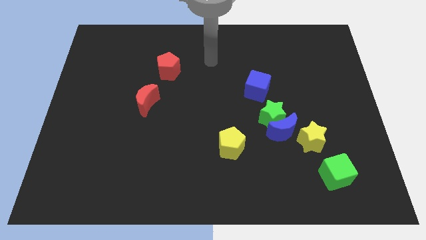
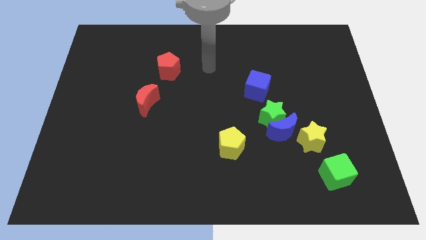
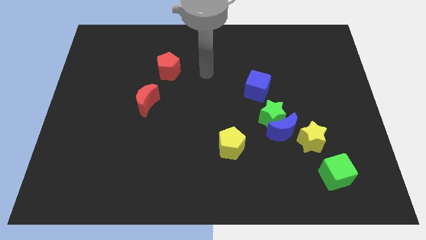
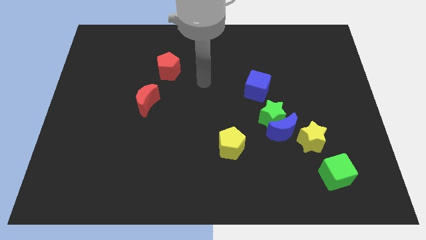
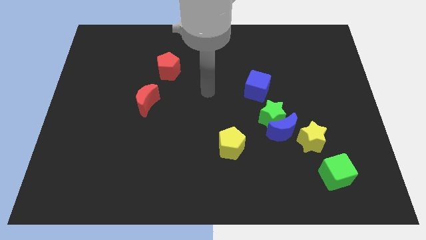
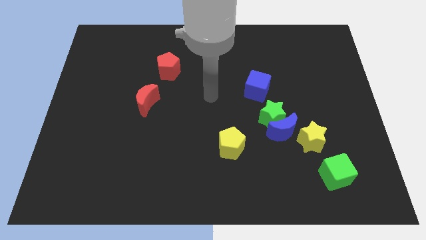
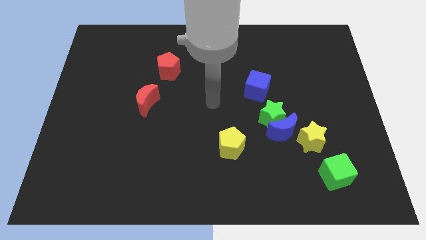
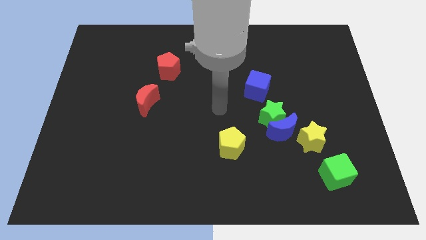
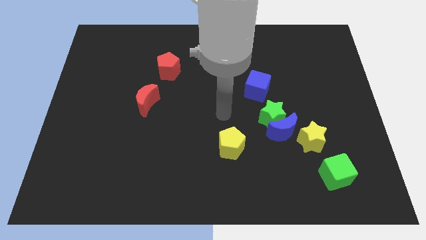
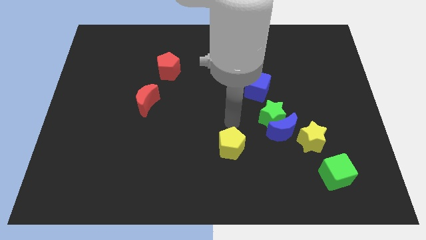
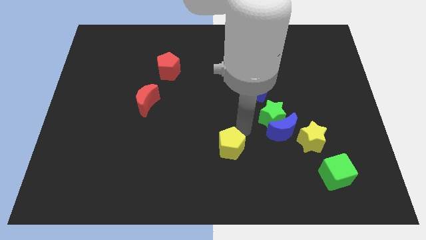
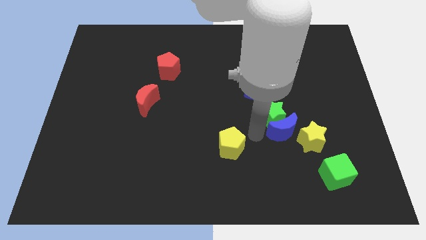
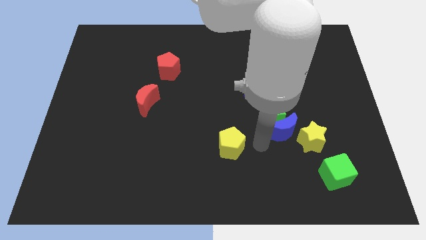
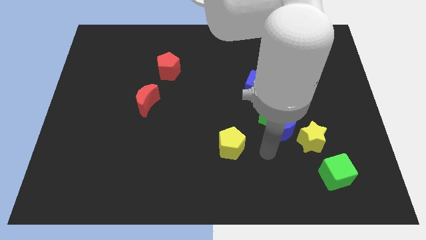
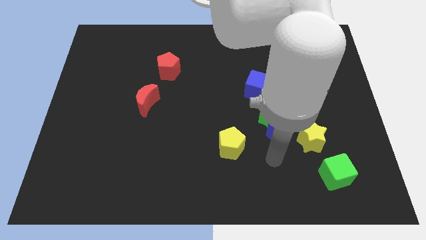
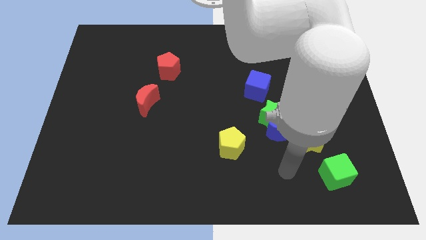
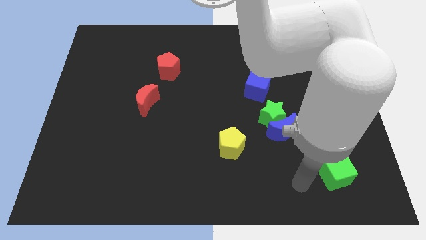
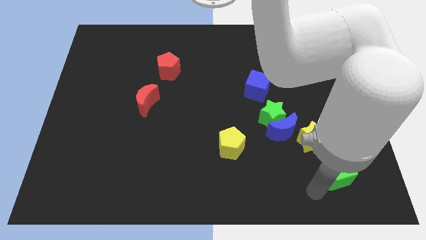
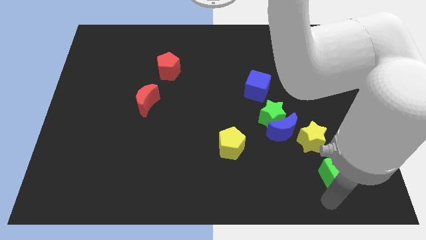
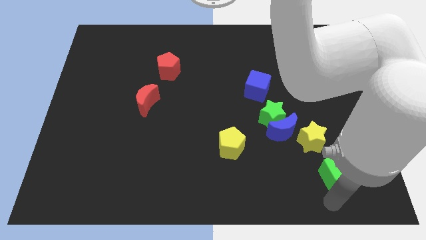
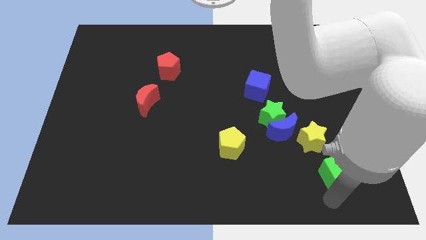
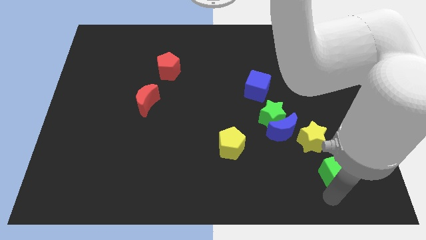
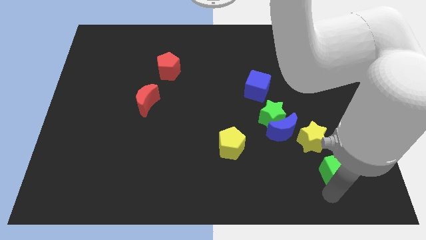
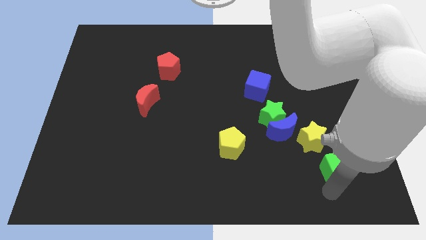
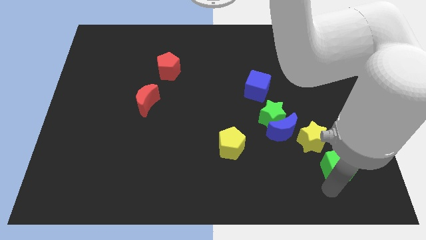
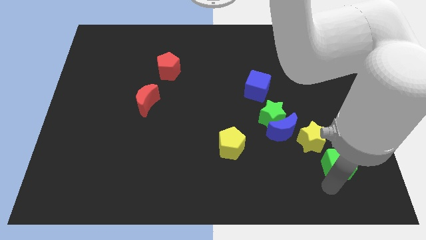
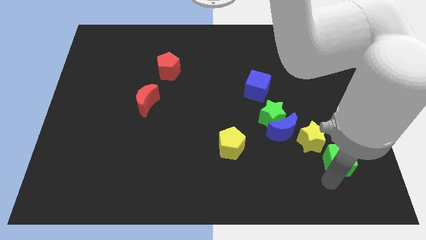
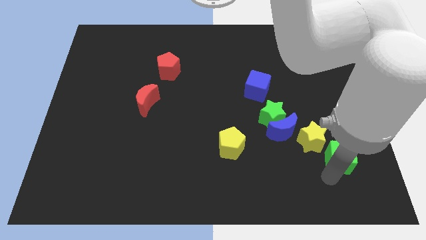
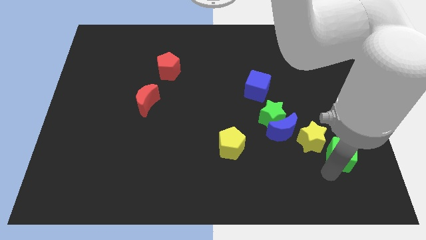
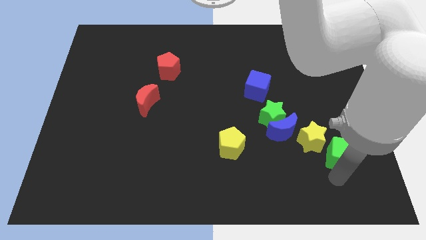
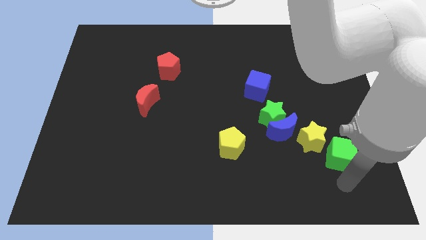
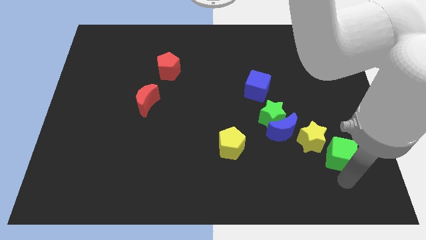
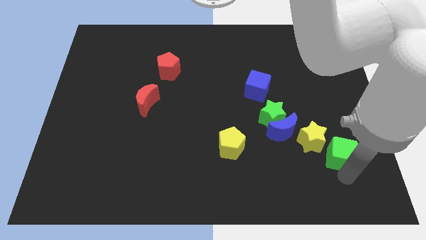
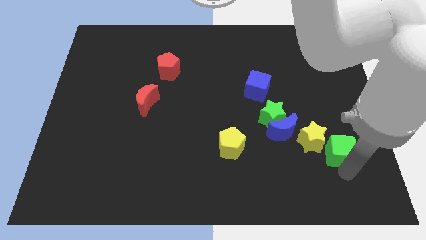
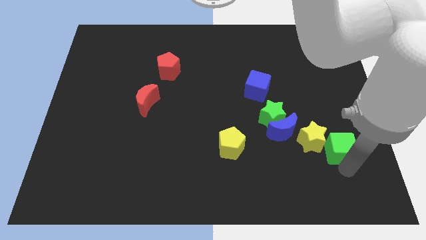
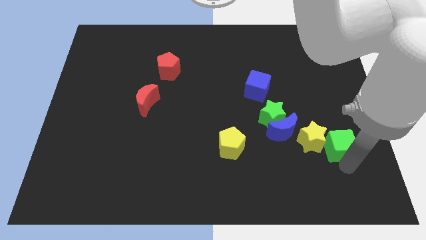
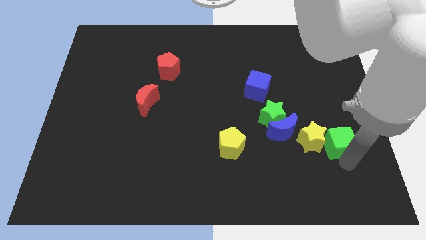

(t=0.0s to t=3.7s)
slide the green cube up a little bit

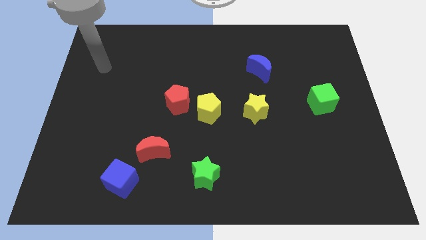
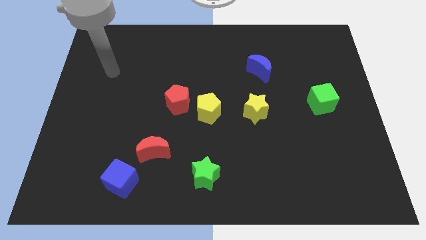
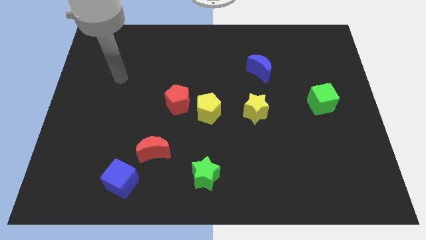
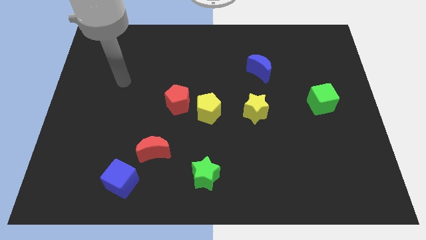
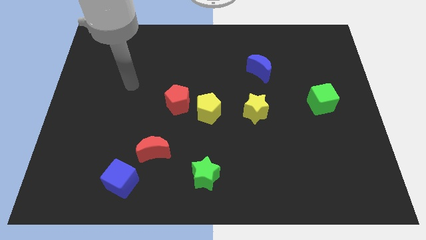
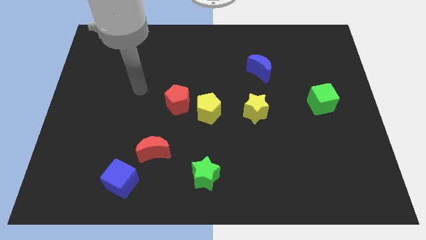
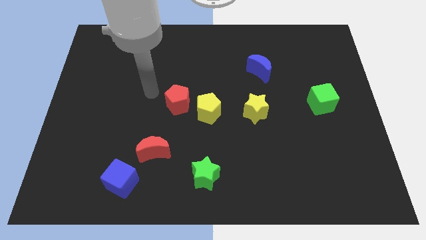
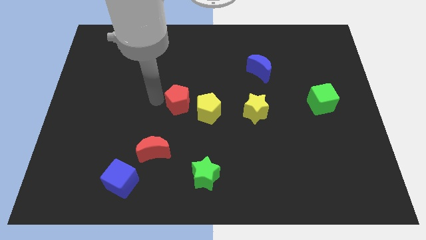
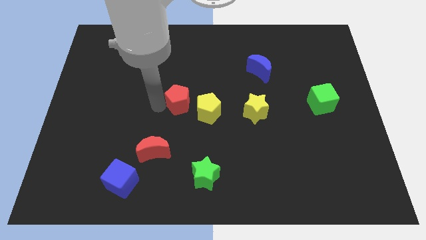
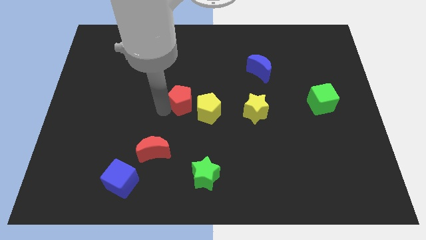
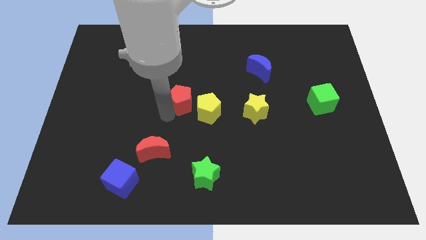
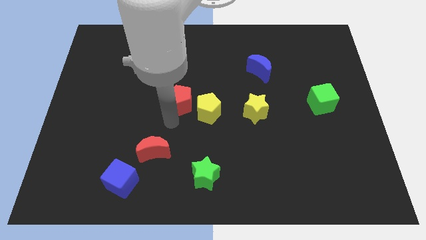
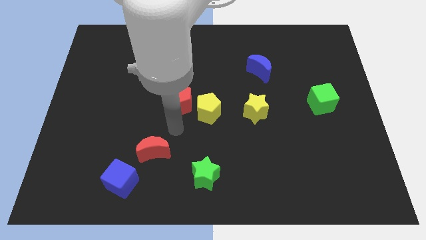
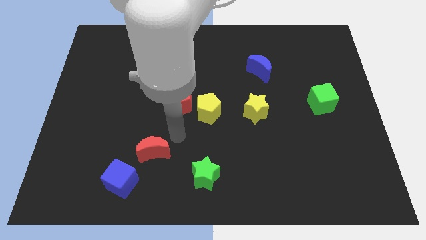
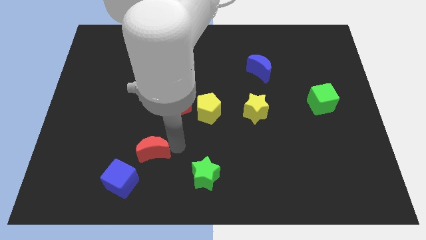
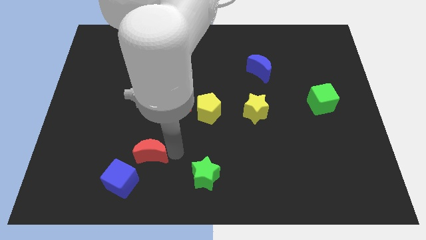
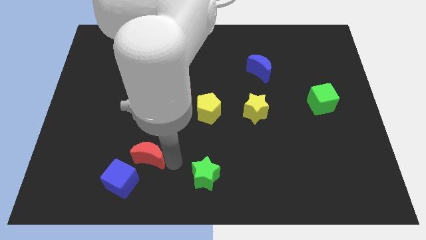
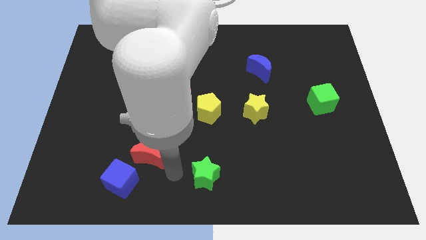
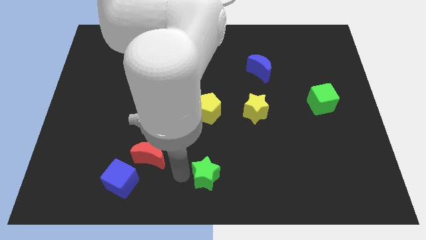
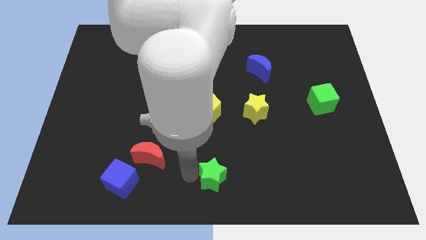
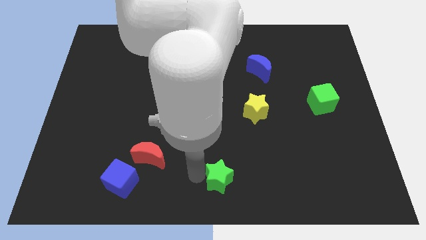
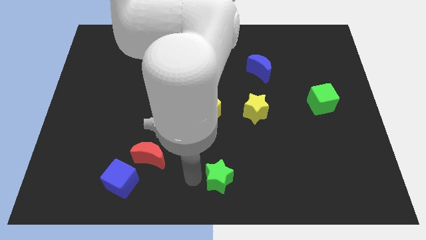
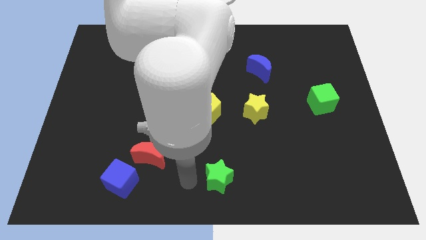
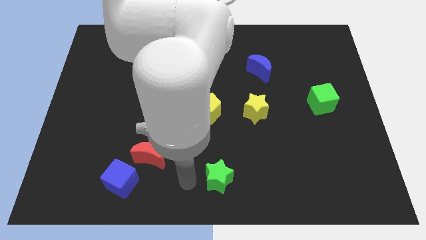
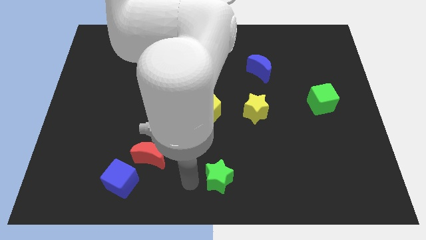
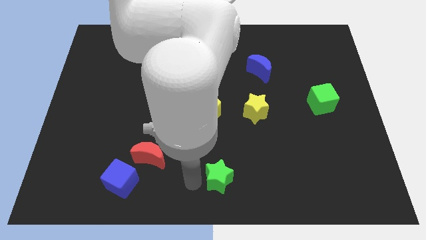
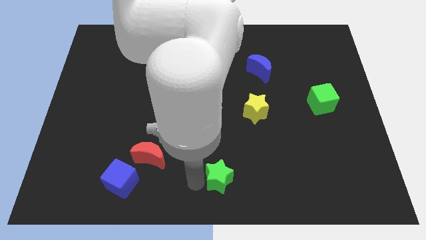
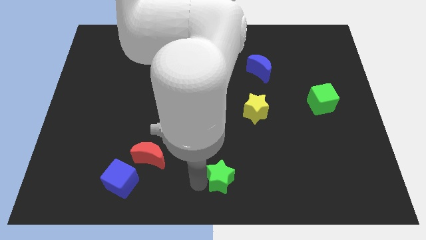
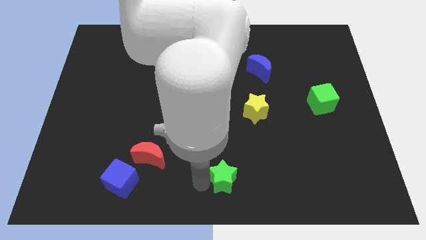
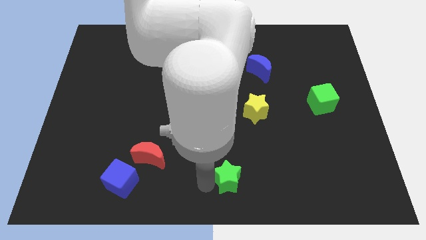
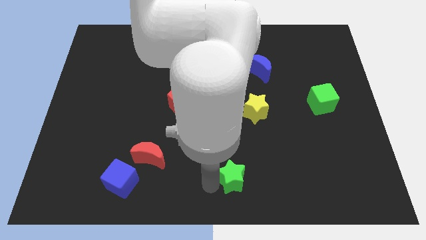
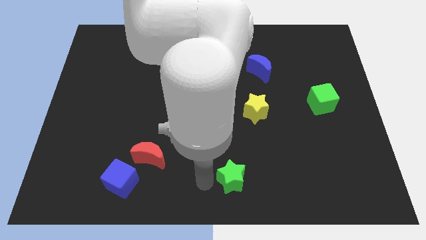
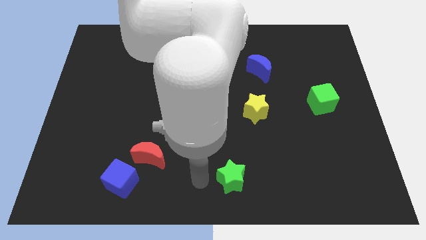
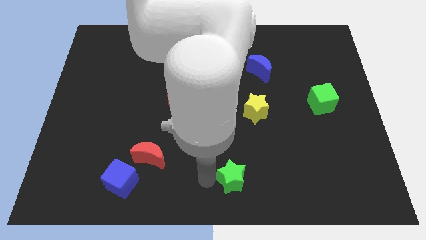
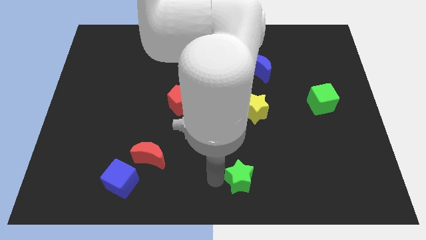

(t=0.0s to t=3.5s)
slightly slide the green star to the right

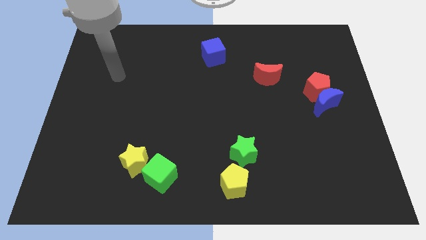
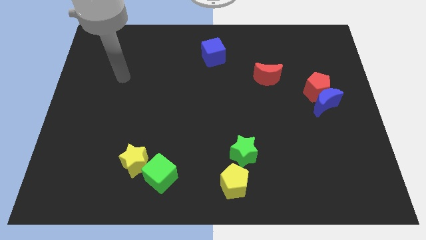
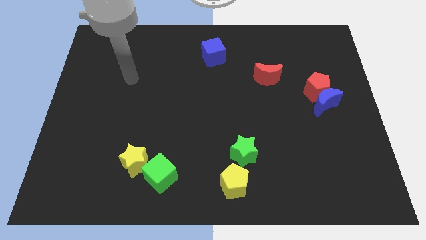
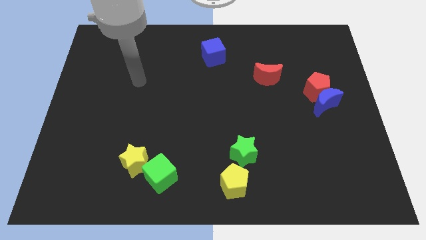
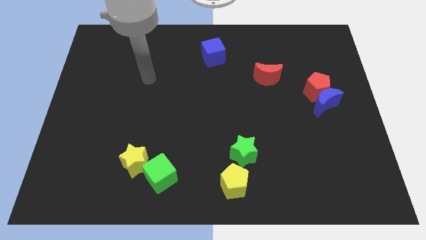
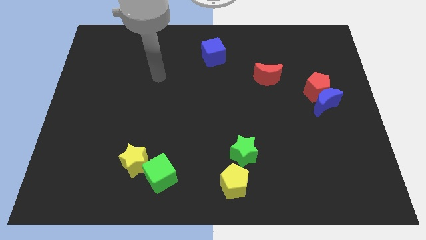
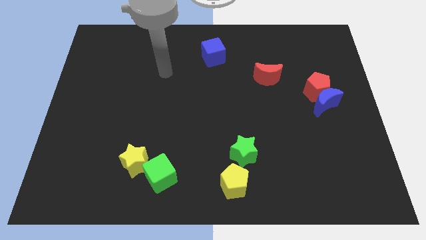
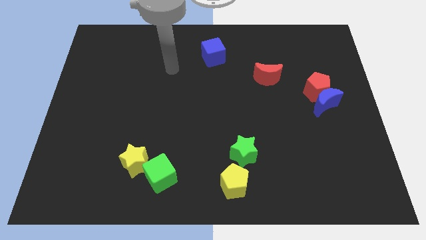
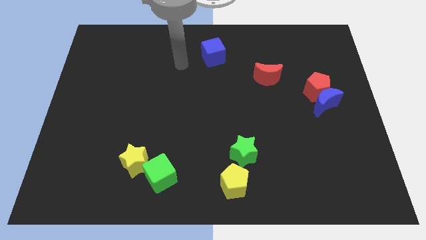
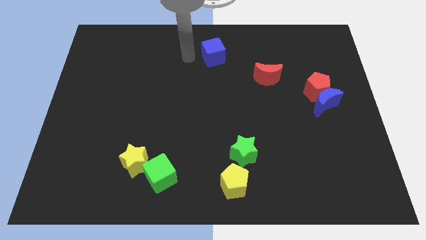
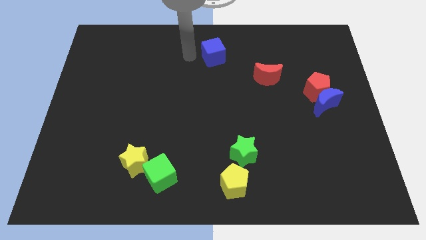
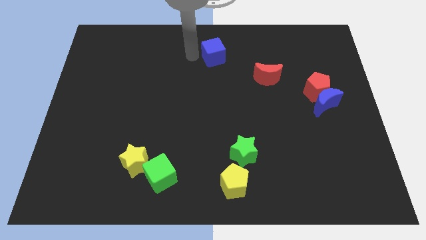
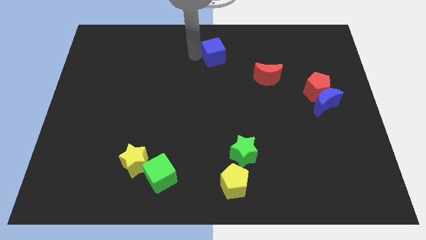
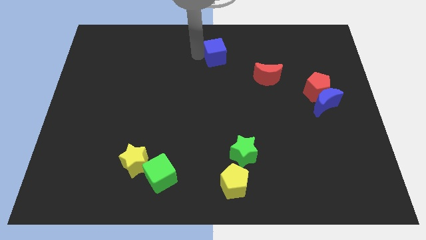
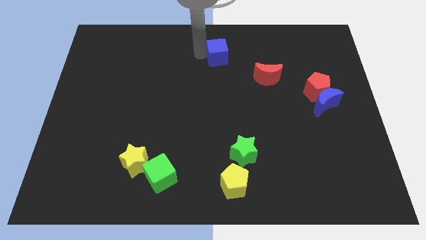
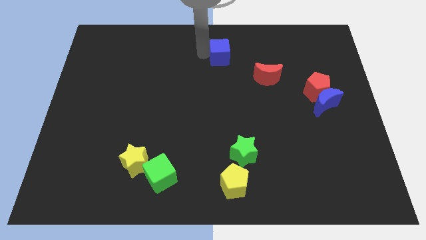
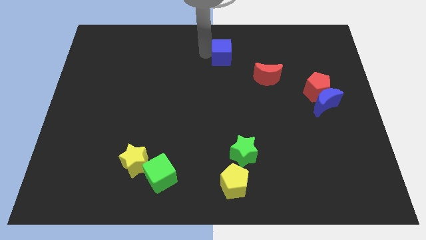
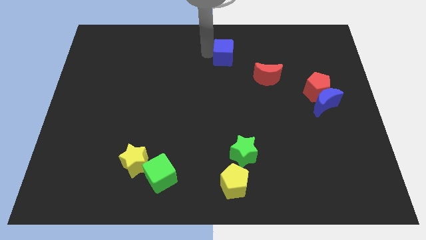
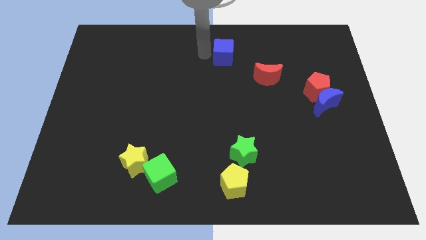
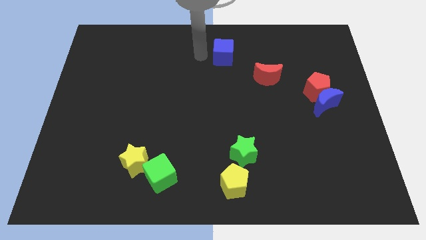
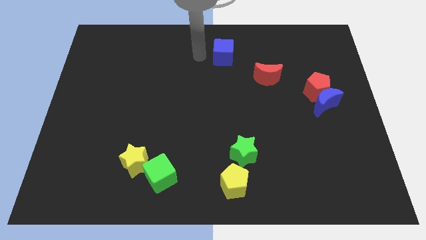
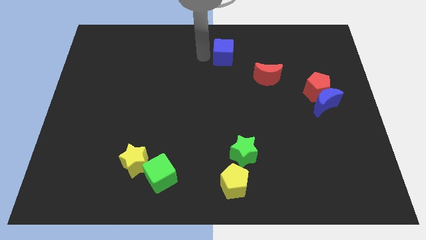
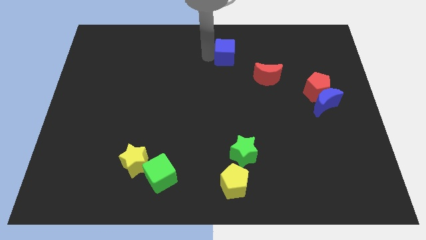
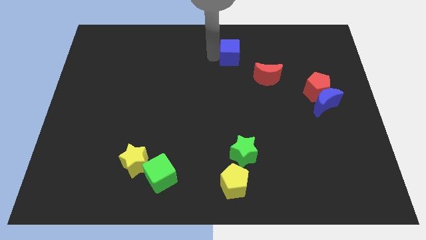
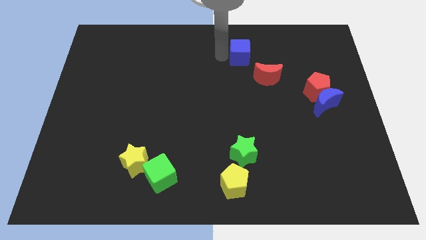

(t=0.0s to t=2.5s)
push the blue cube right a little
